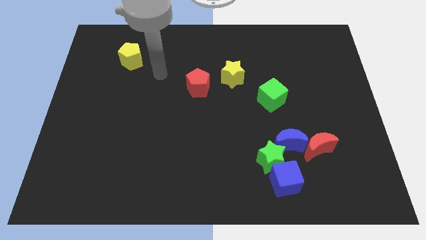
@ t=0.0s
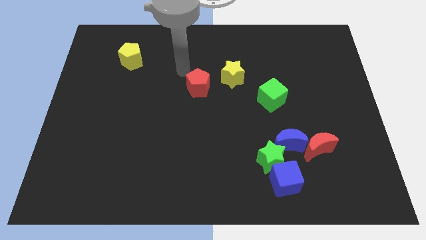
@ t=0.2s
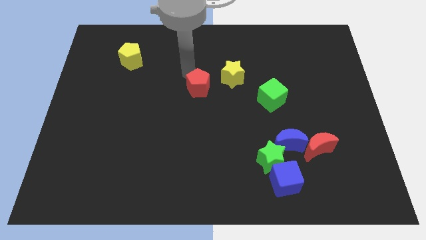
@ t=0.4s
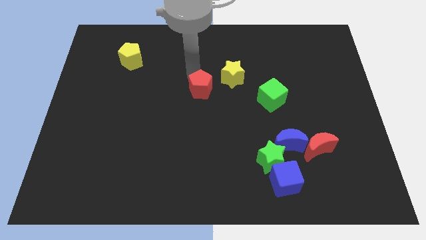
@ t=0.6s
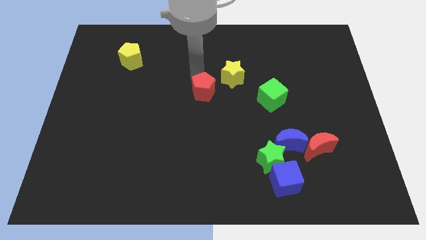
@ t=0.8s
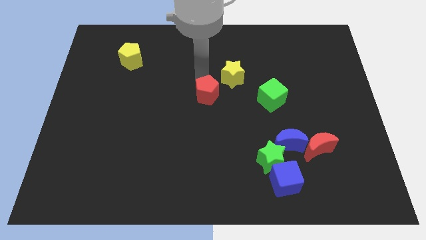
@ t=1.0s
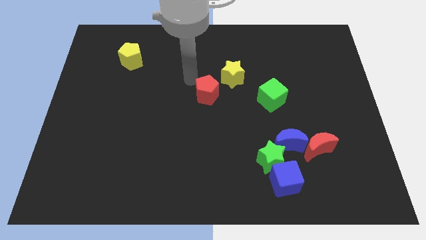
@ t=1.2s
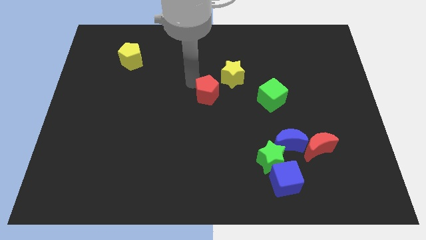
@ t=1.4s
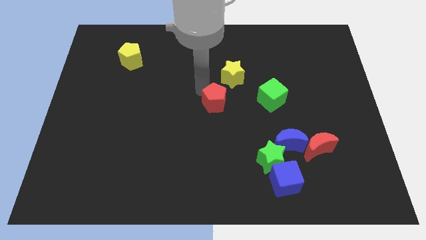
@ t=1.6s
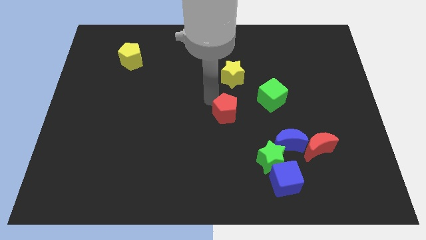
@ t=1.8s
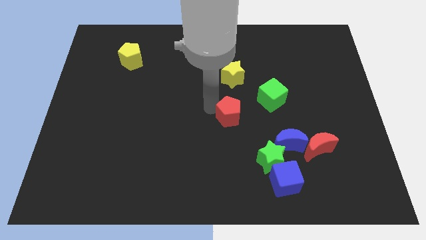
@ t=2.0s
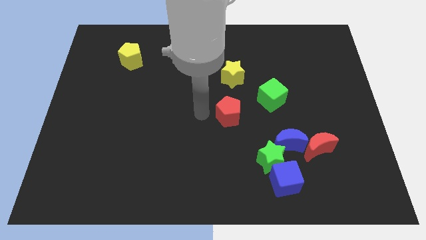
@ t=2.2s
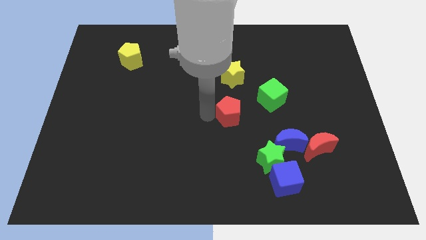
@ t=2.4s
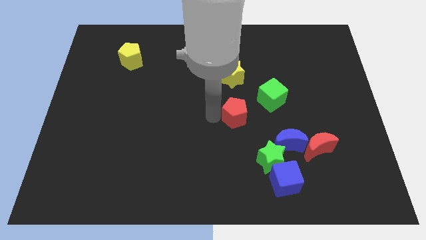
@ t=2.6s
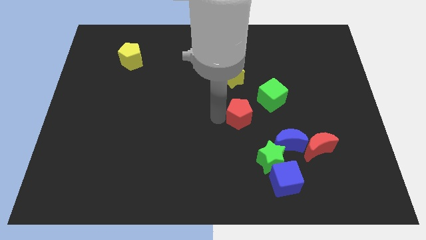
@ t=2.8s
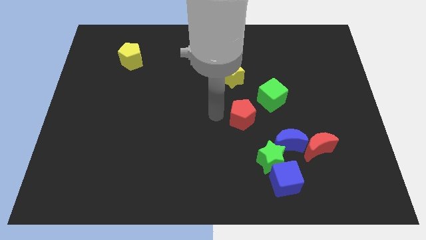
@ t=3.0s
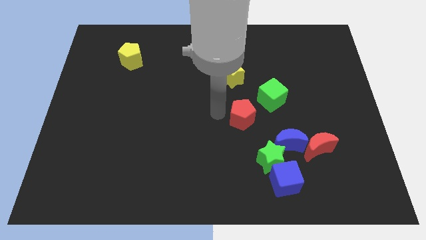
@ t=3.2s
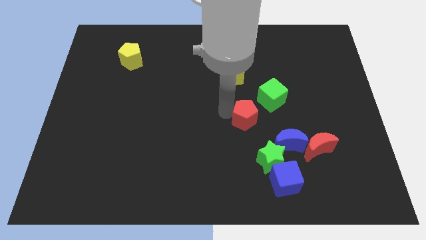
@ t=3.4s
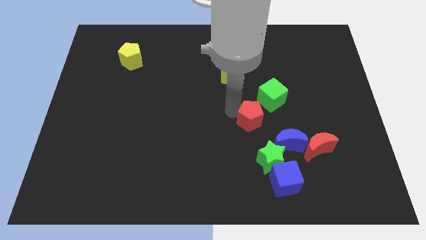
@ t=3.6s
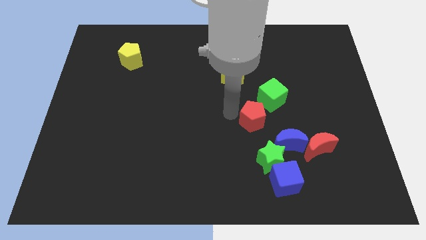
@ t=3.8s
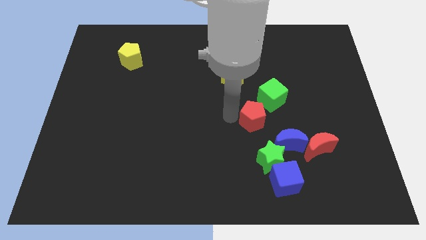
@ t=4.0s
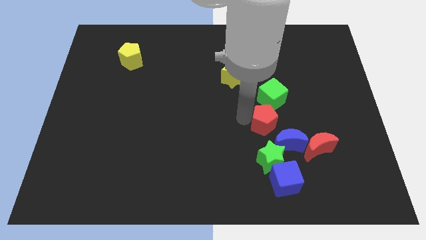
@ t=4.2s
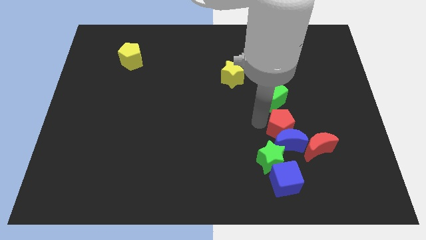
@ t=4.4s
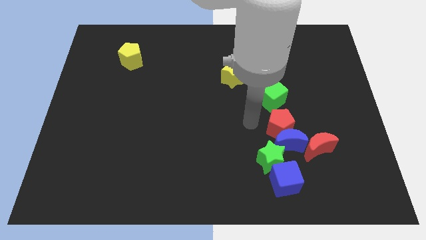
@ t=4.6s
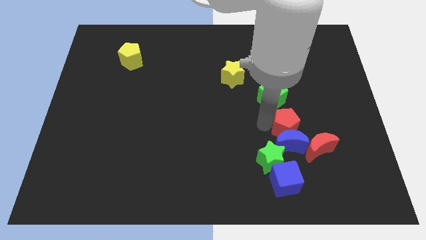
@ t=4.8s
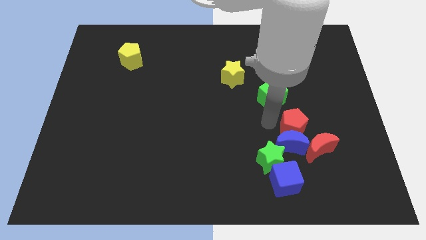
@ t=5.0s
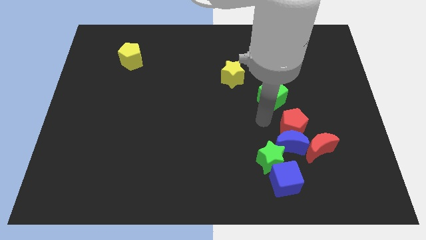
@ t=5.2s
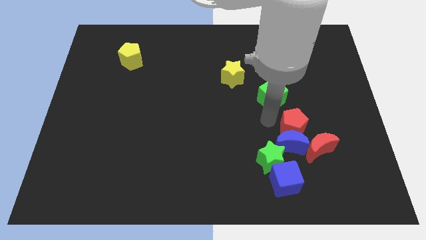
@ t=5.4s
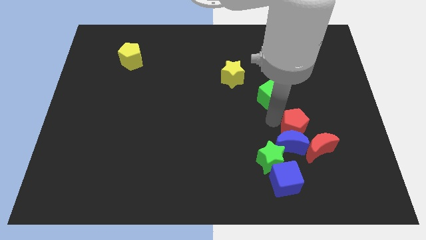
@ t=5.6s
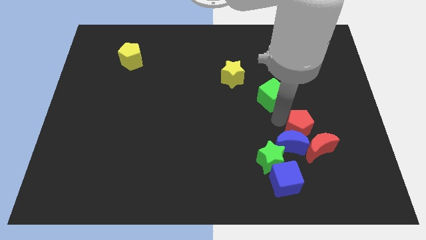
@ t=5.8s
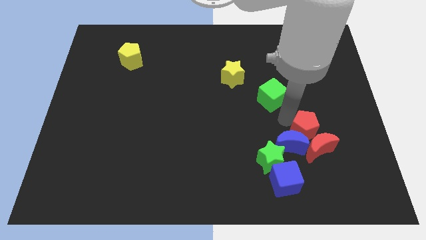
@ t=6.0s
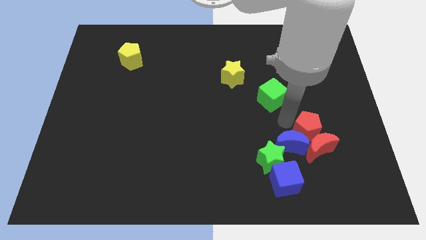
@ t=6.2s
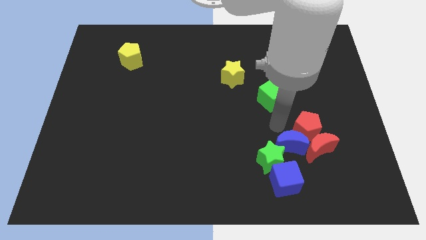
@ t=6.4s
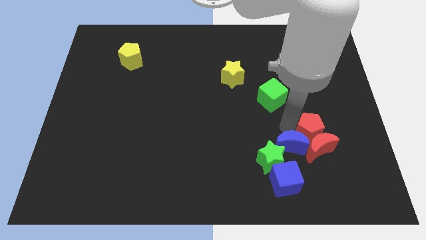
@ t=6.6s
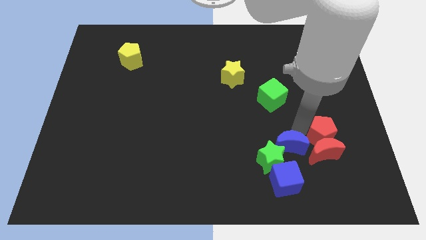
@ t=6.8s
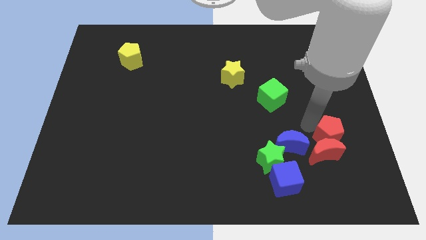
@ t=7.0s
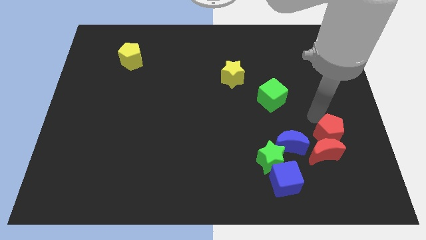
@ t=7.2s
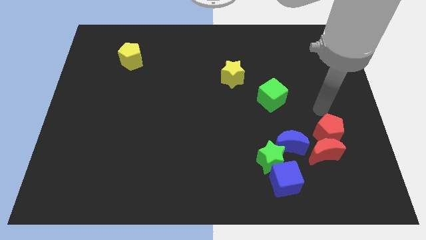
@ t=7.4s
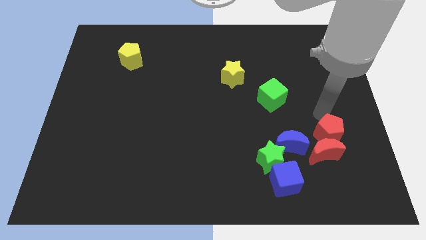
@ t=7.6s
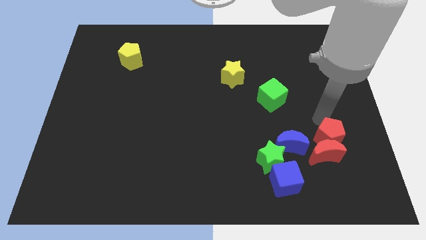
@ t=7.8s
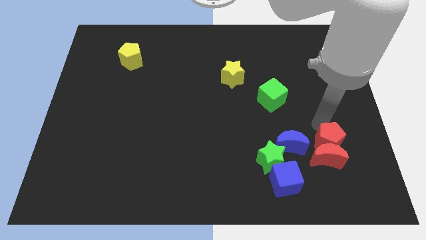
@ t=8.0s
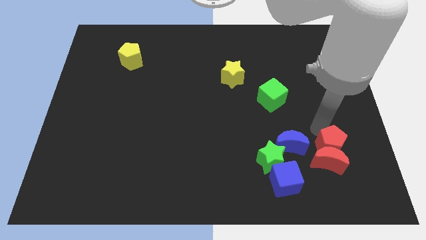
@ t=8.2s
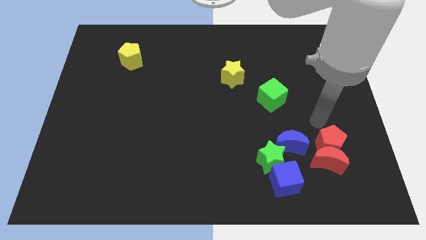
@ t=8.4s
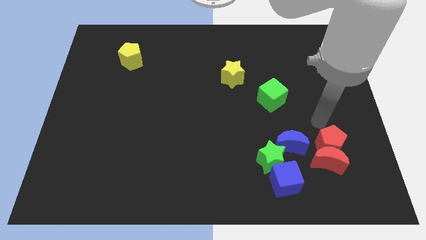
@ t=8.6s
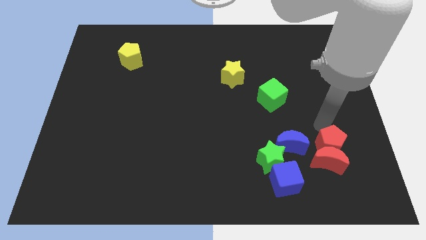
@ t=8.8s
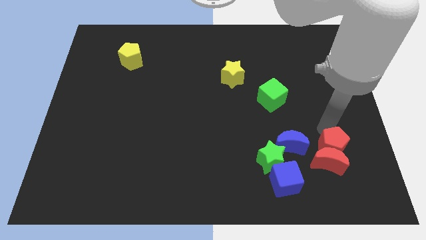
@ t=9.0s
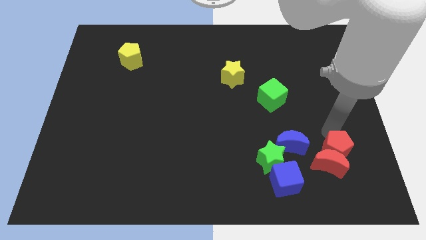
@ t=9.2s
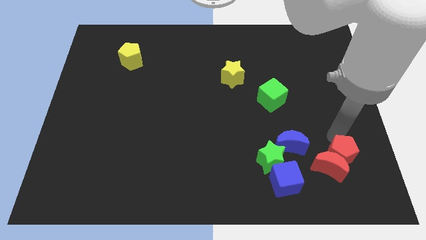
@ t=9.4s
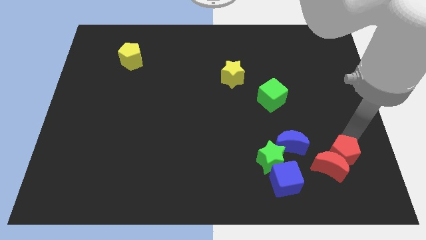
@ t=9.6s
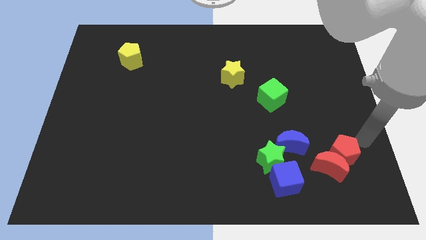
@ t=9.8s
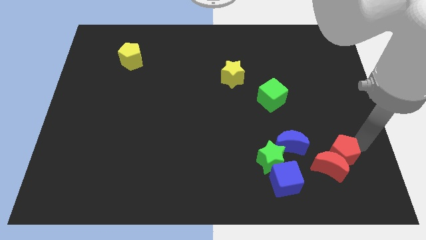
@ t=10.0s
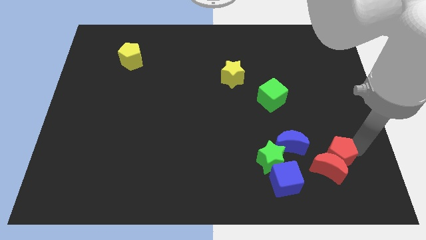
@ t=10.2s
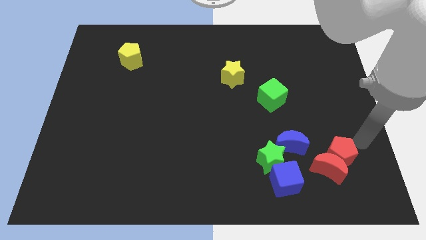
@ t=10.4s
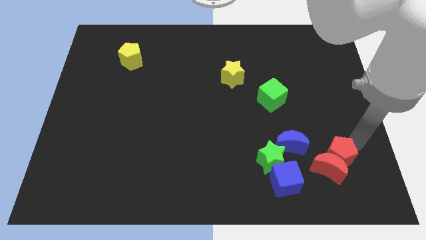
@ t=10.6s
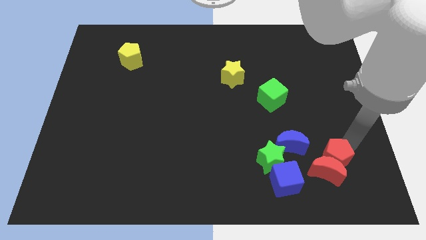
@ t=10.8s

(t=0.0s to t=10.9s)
slide the red pentagon diagonally down and to the right of the blue moon
